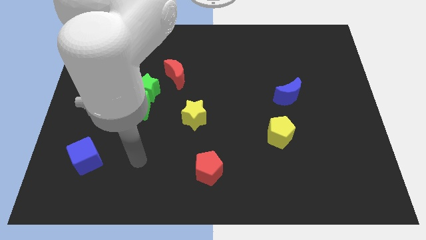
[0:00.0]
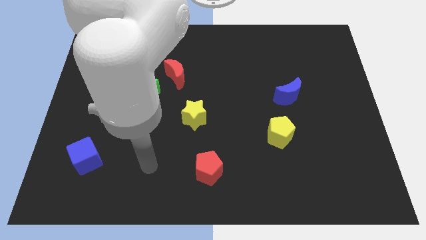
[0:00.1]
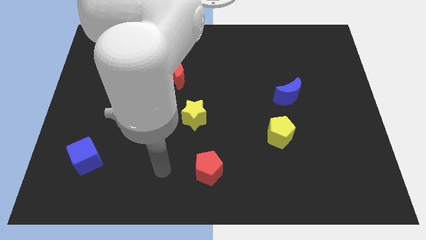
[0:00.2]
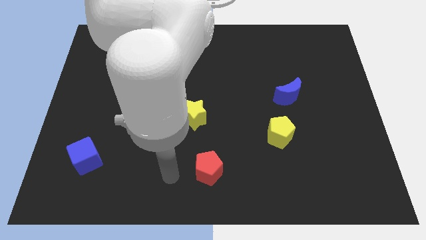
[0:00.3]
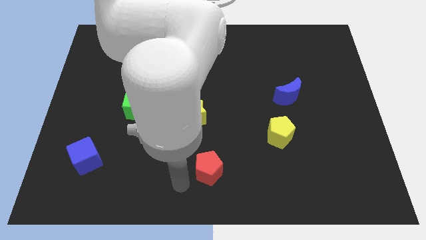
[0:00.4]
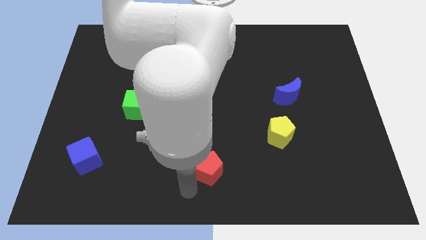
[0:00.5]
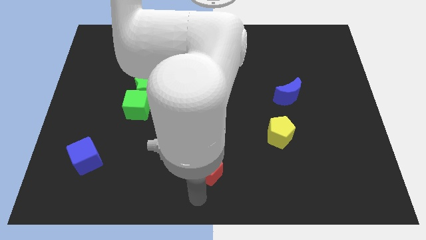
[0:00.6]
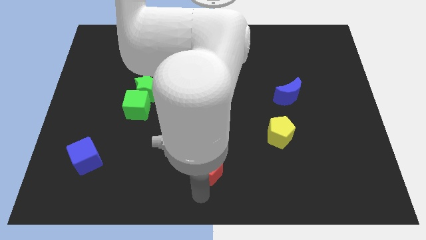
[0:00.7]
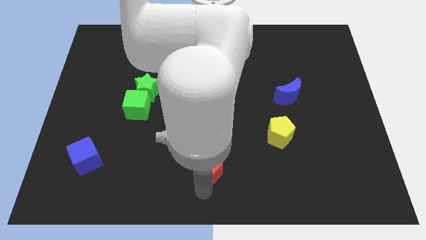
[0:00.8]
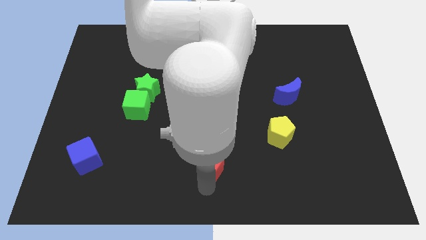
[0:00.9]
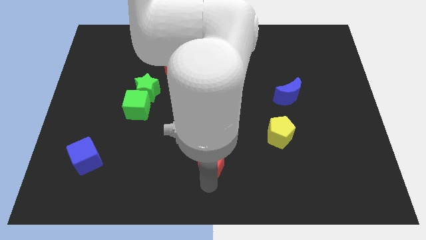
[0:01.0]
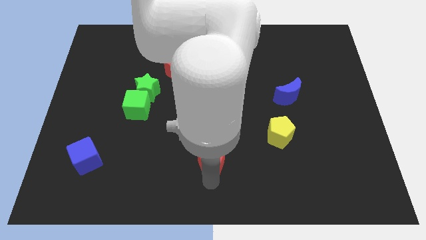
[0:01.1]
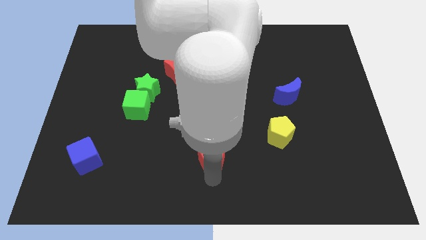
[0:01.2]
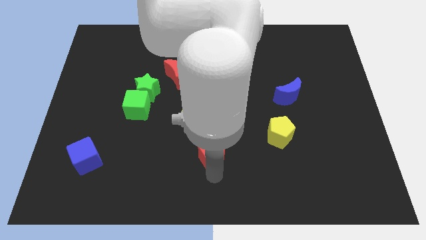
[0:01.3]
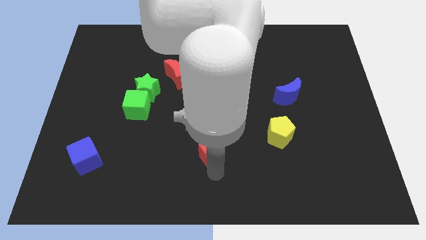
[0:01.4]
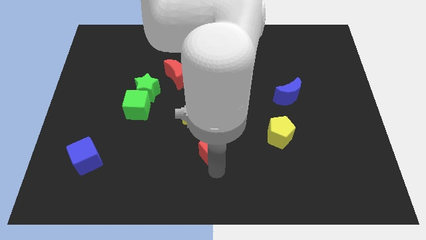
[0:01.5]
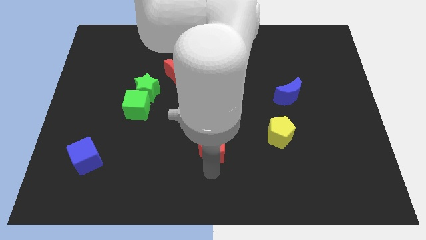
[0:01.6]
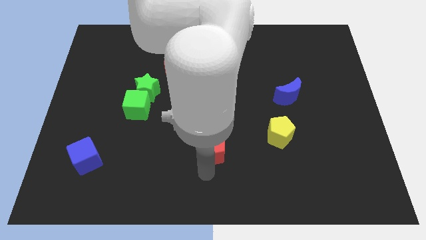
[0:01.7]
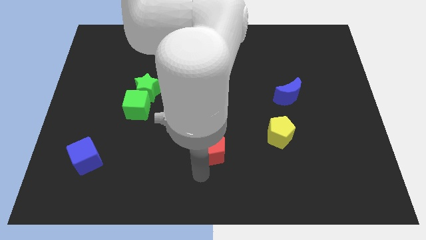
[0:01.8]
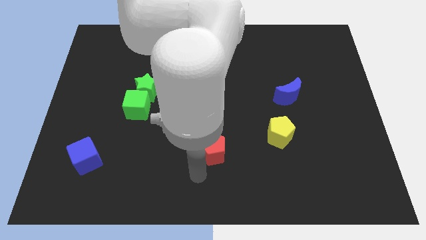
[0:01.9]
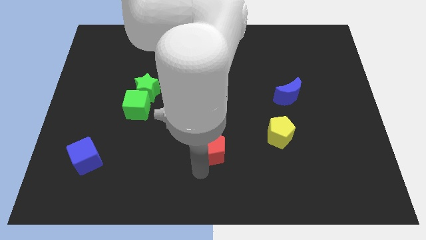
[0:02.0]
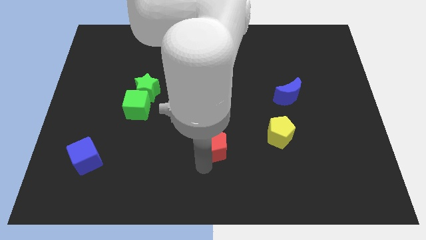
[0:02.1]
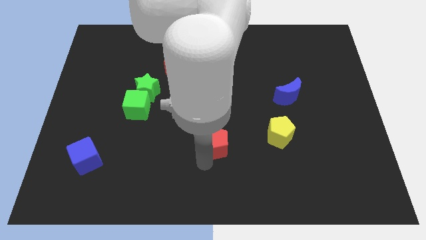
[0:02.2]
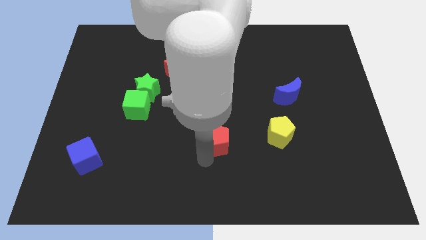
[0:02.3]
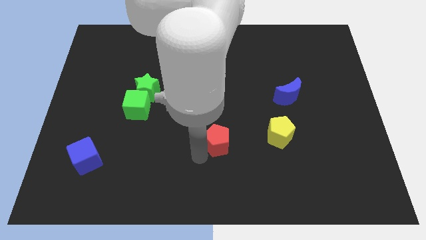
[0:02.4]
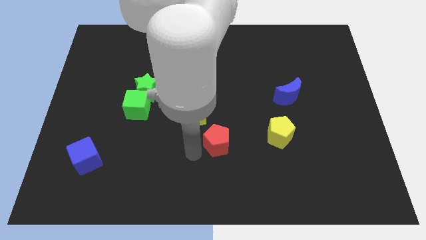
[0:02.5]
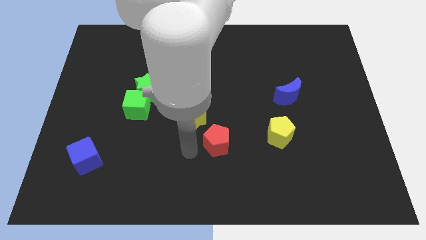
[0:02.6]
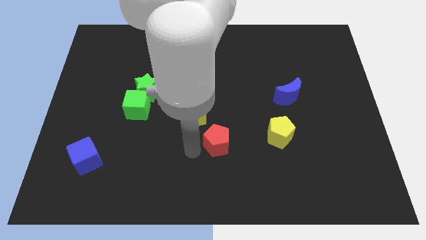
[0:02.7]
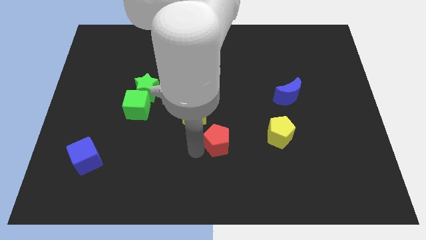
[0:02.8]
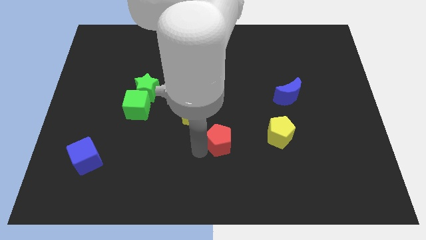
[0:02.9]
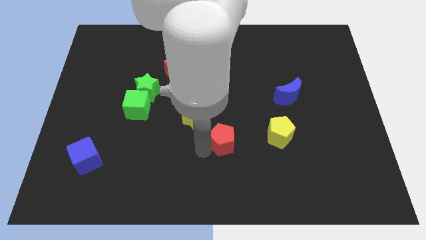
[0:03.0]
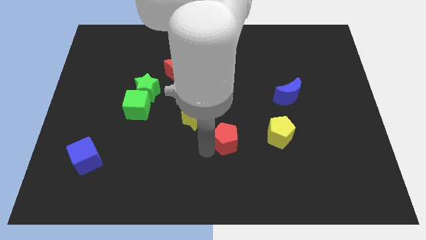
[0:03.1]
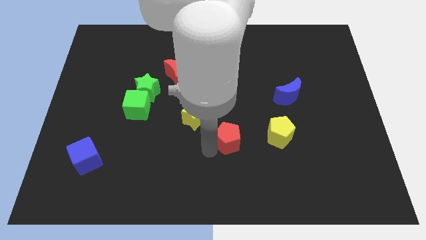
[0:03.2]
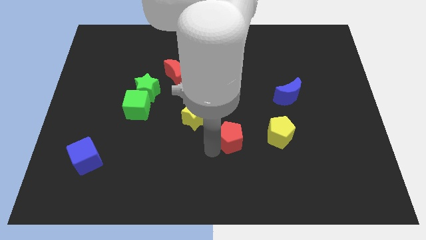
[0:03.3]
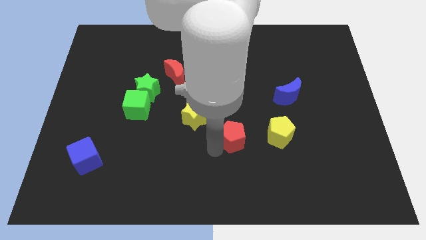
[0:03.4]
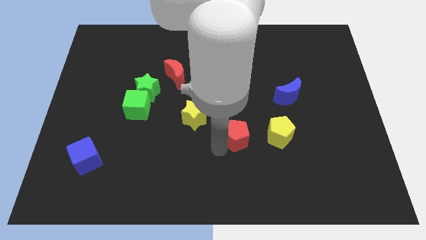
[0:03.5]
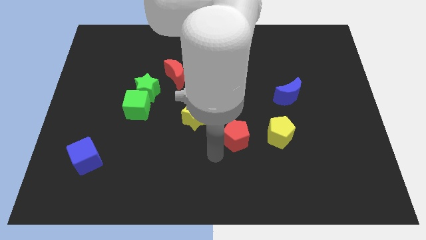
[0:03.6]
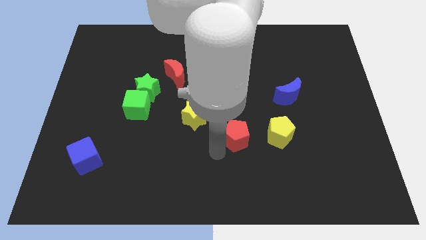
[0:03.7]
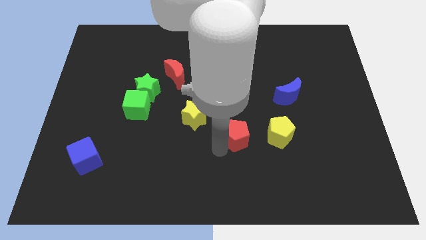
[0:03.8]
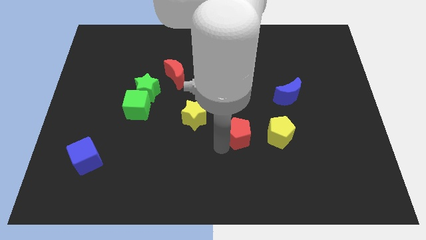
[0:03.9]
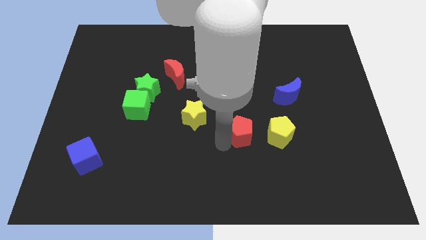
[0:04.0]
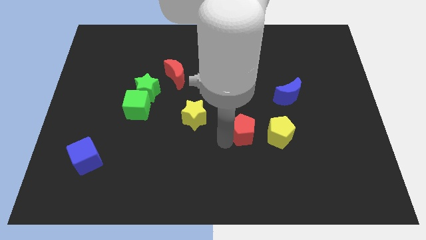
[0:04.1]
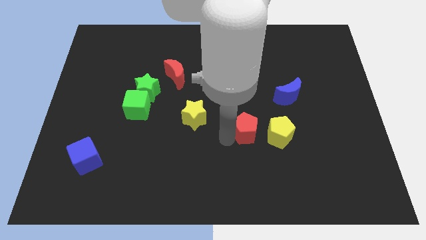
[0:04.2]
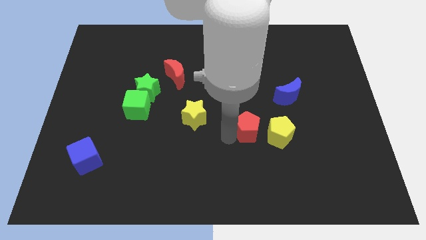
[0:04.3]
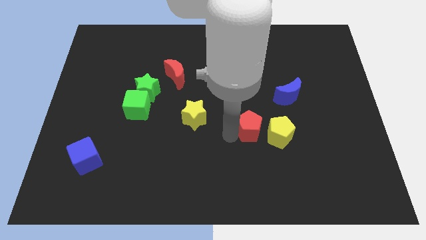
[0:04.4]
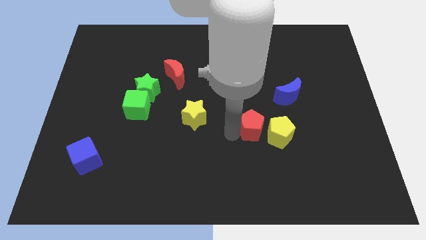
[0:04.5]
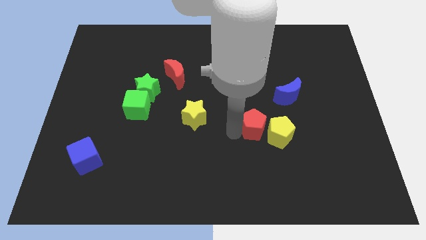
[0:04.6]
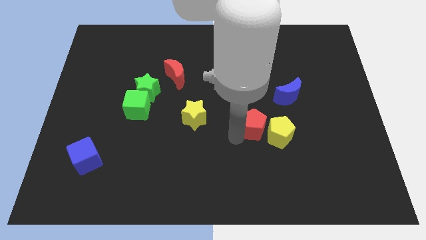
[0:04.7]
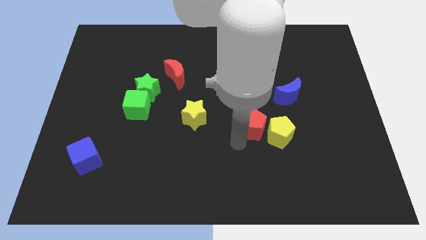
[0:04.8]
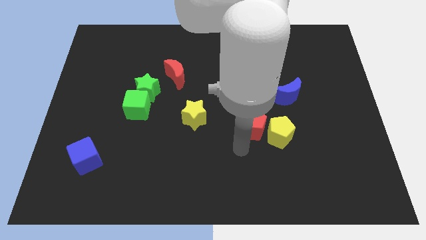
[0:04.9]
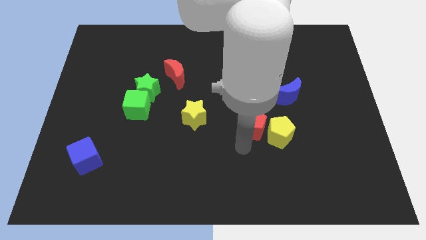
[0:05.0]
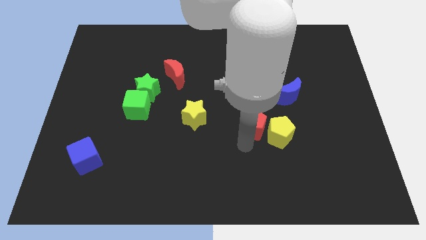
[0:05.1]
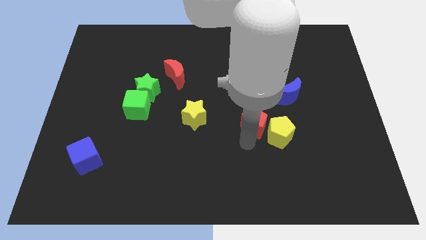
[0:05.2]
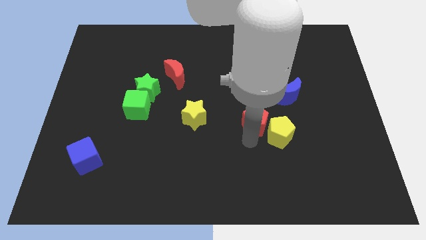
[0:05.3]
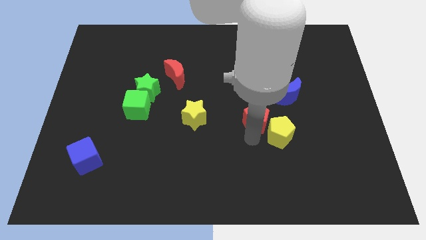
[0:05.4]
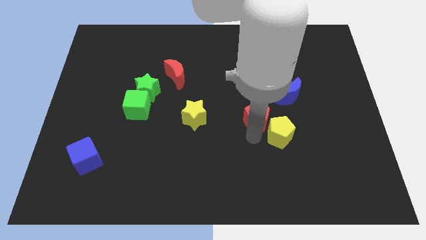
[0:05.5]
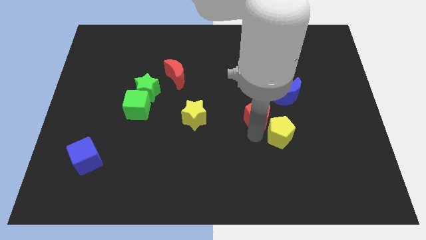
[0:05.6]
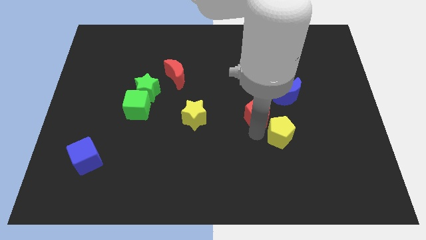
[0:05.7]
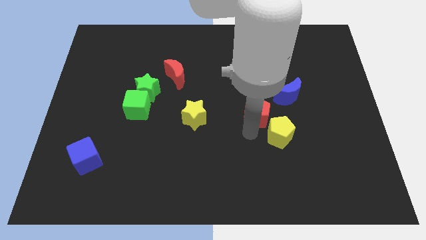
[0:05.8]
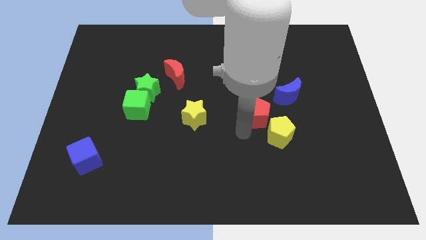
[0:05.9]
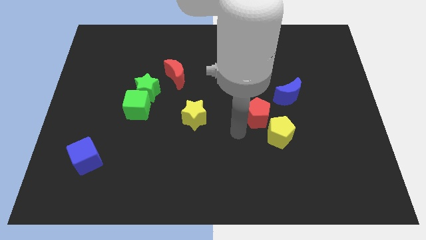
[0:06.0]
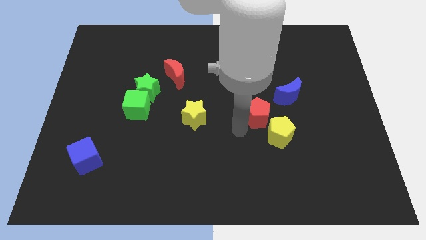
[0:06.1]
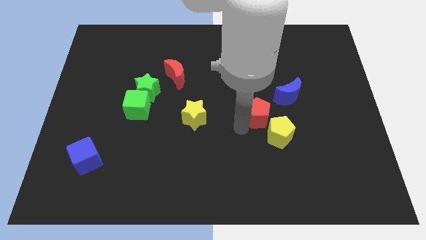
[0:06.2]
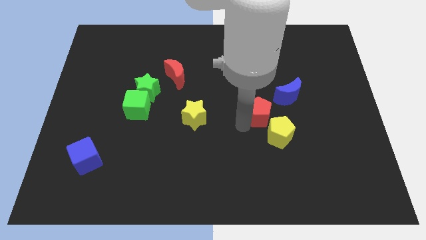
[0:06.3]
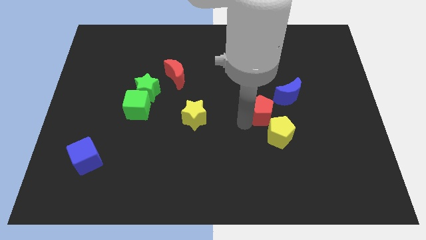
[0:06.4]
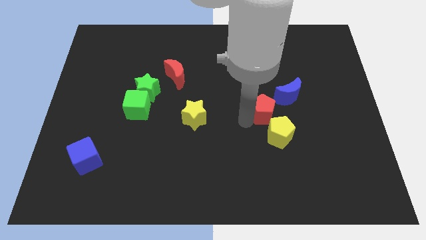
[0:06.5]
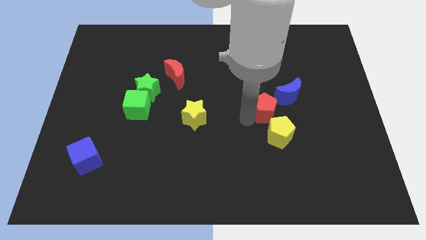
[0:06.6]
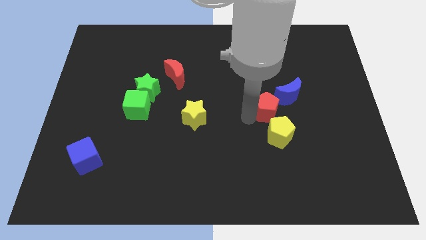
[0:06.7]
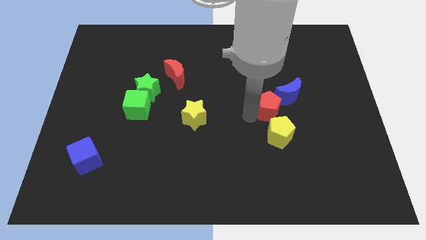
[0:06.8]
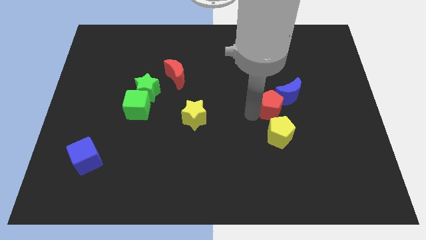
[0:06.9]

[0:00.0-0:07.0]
push the red pentagon close to the blue moon
